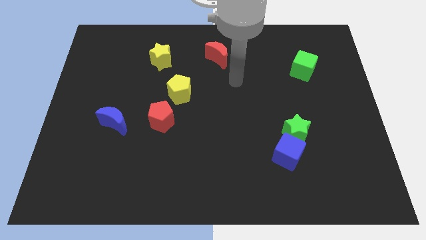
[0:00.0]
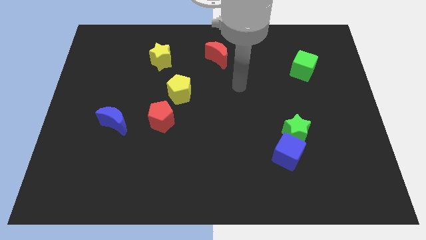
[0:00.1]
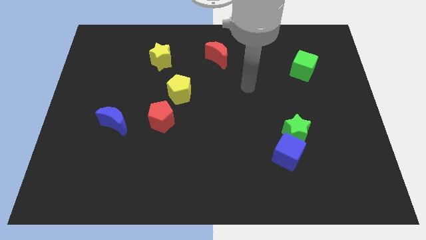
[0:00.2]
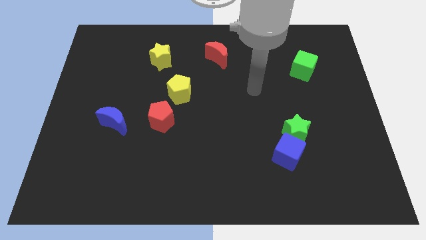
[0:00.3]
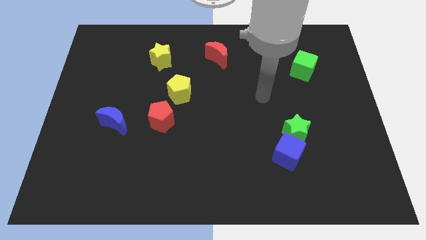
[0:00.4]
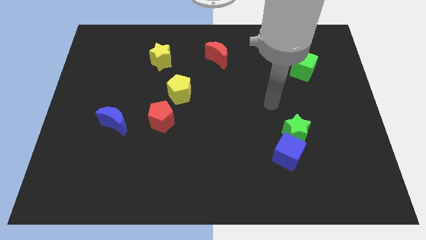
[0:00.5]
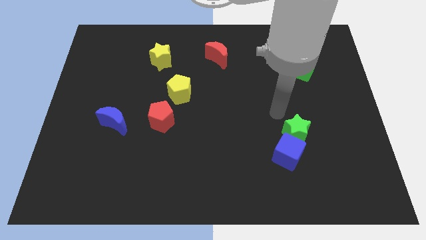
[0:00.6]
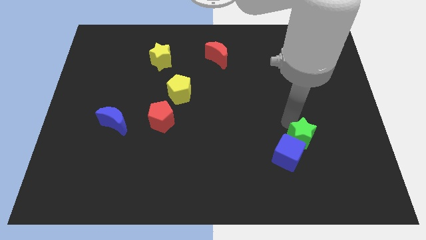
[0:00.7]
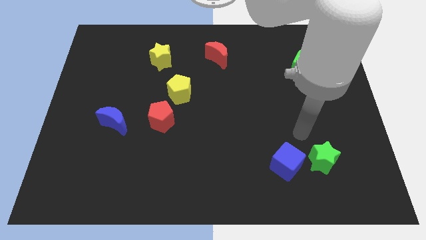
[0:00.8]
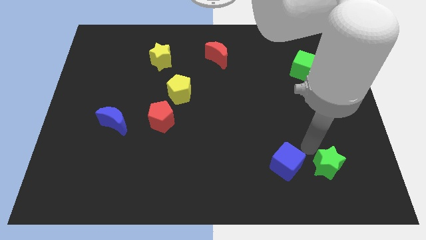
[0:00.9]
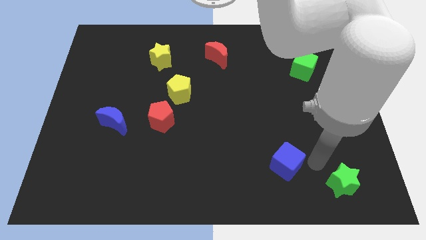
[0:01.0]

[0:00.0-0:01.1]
move the blue cube away from the green star

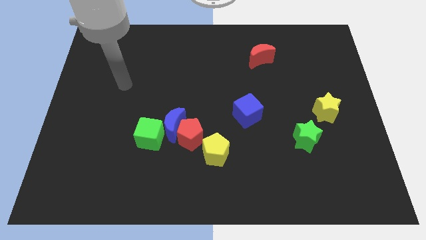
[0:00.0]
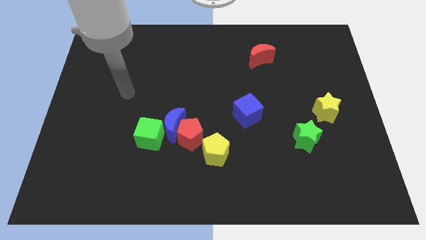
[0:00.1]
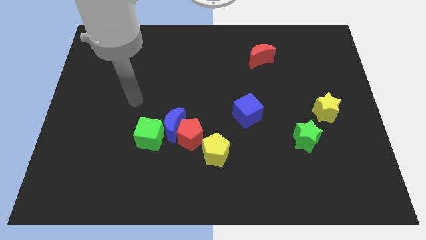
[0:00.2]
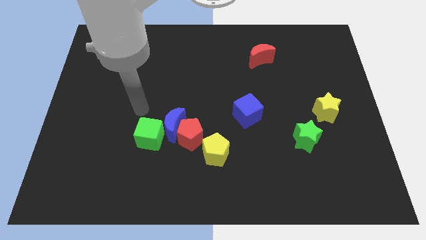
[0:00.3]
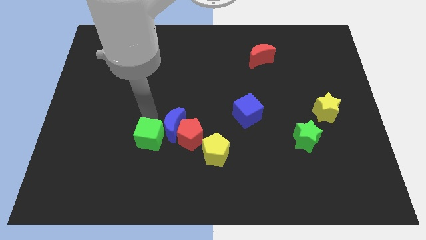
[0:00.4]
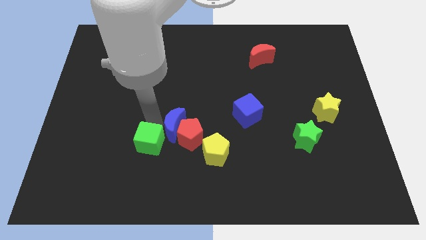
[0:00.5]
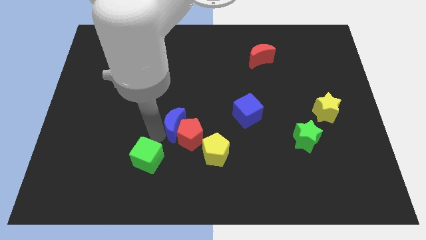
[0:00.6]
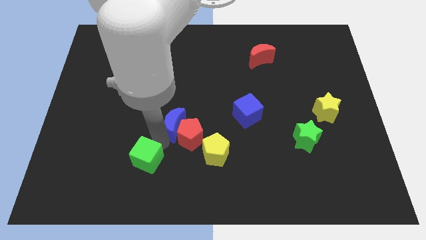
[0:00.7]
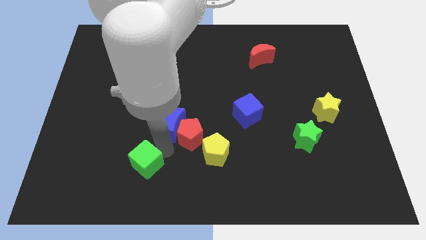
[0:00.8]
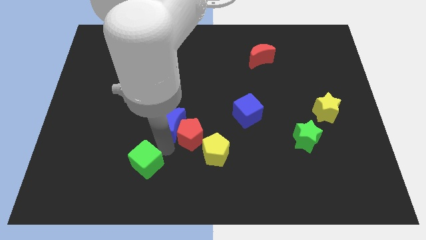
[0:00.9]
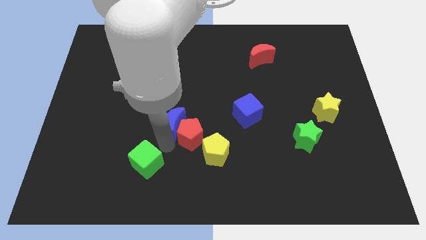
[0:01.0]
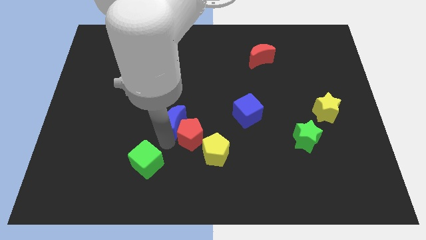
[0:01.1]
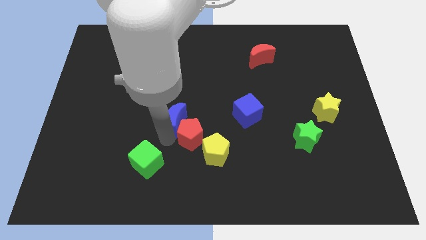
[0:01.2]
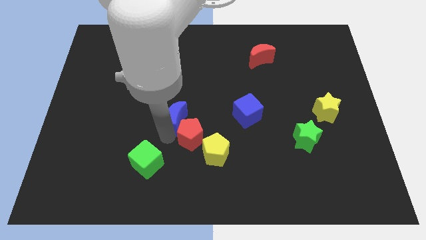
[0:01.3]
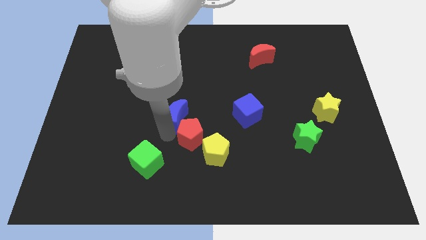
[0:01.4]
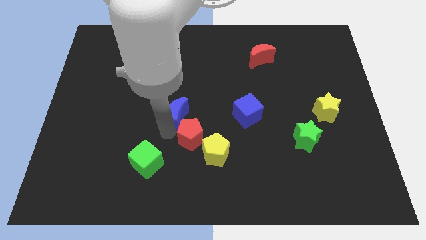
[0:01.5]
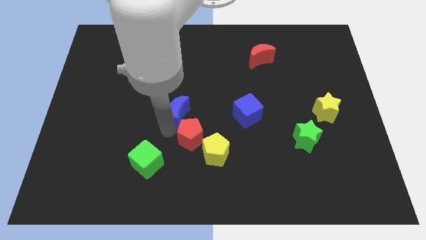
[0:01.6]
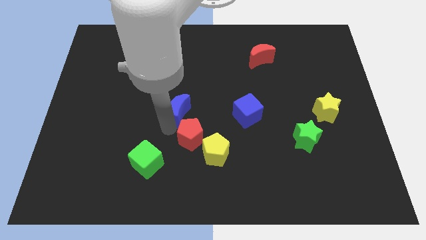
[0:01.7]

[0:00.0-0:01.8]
move the blue moon away from the red pentagon and green cube

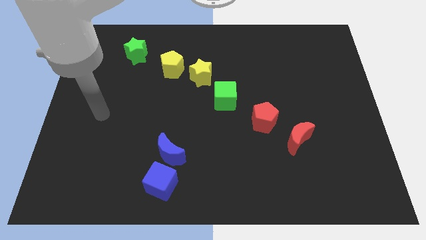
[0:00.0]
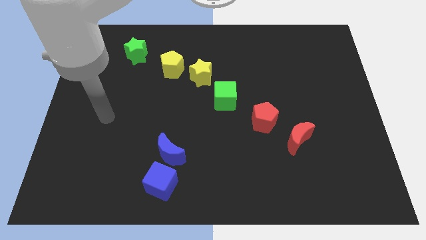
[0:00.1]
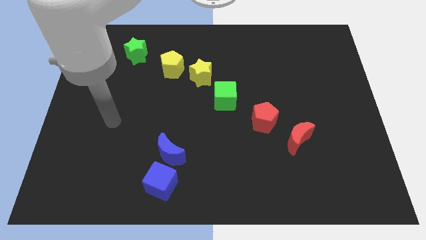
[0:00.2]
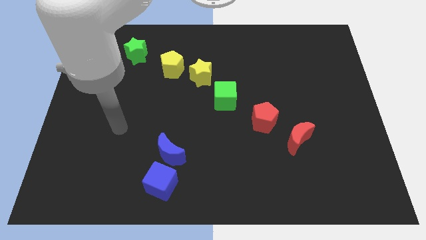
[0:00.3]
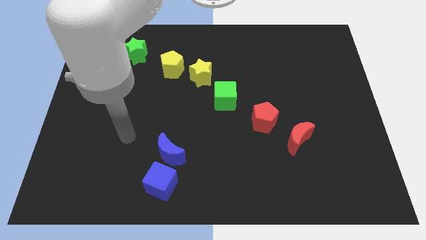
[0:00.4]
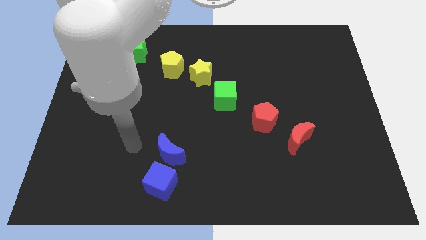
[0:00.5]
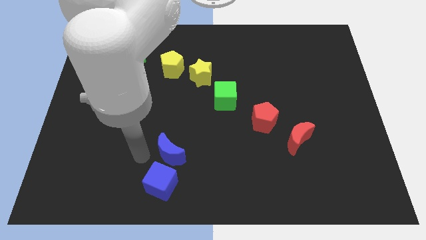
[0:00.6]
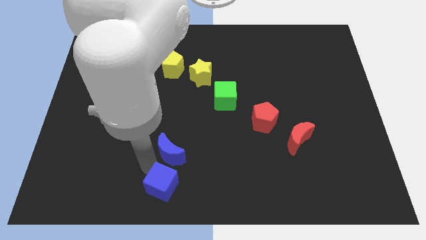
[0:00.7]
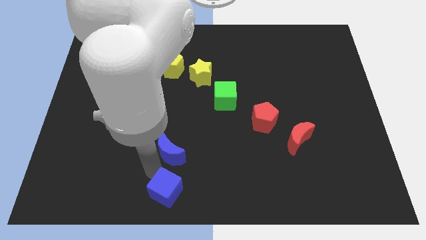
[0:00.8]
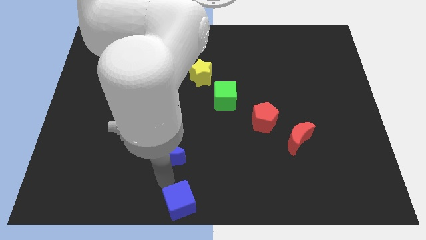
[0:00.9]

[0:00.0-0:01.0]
move the blue moon away from the blue cube

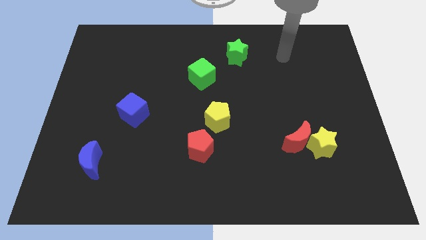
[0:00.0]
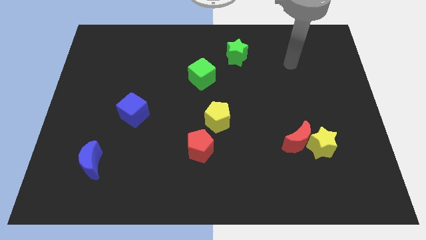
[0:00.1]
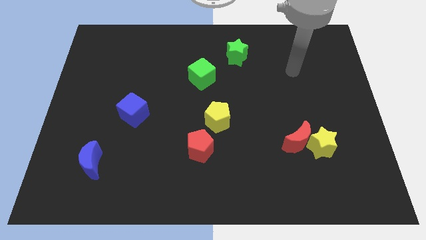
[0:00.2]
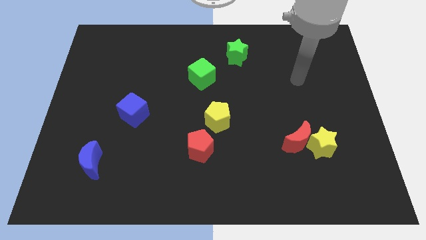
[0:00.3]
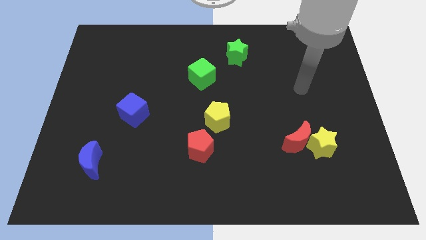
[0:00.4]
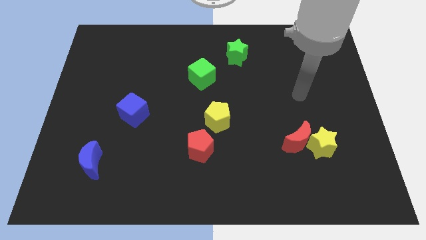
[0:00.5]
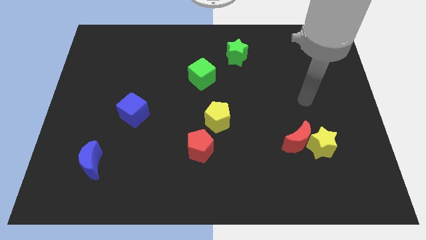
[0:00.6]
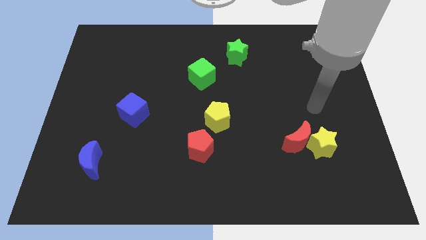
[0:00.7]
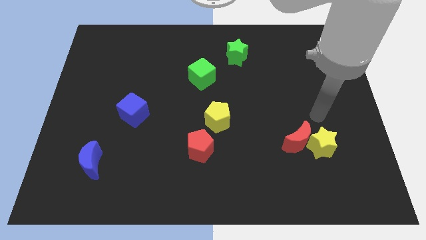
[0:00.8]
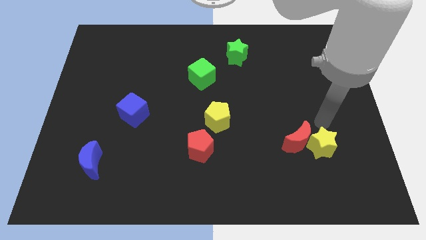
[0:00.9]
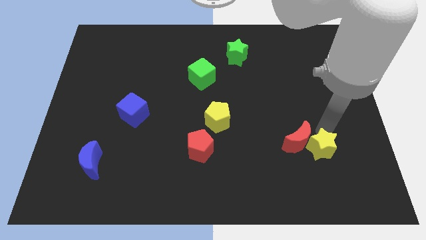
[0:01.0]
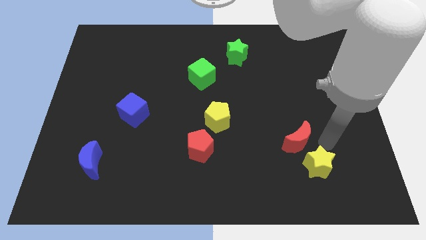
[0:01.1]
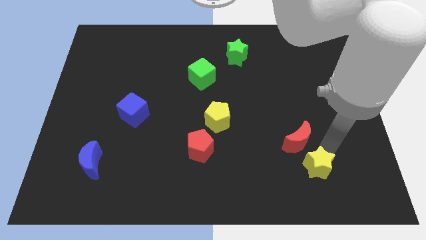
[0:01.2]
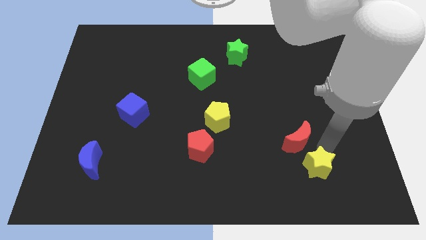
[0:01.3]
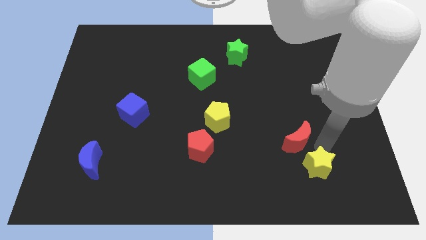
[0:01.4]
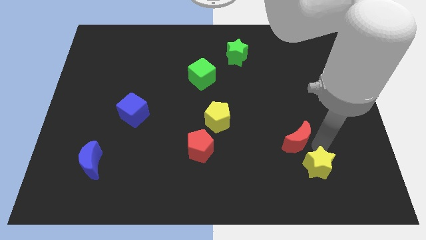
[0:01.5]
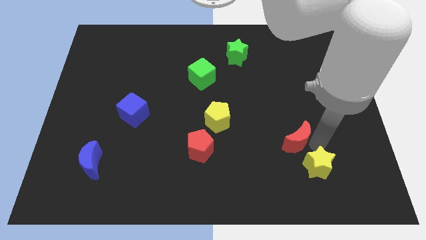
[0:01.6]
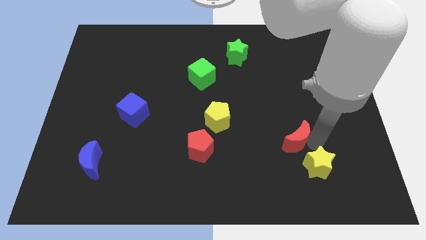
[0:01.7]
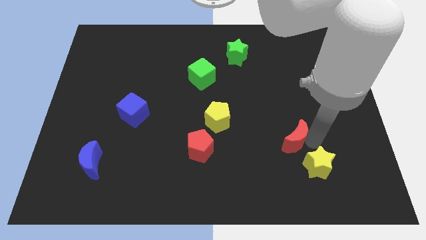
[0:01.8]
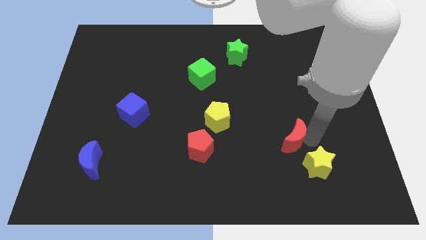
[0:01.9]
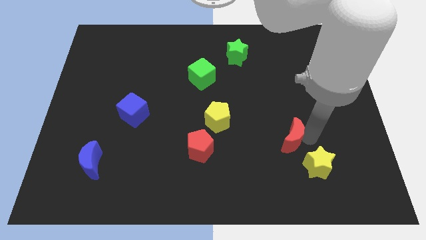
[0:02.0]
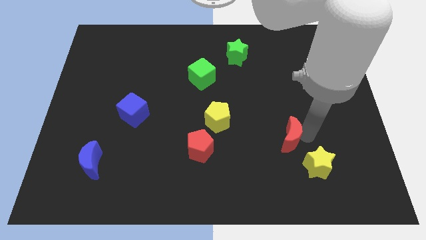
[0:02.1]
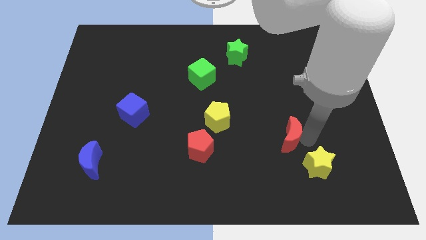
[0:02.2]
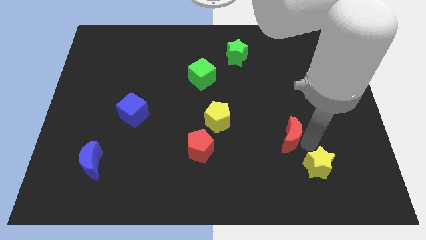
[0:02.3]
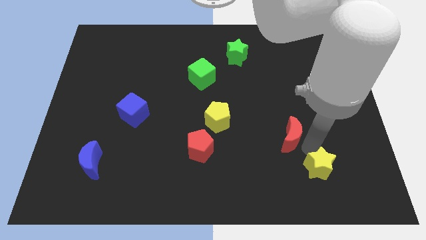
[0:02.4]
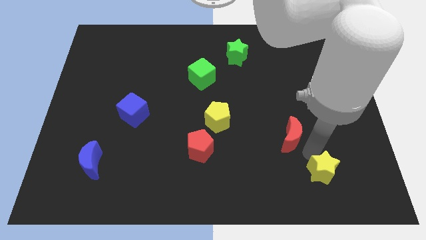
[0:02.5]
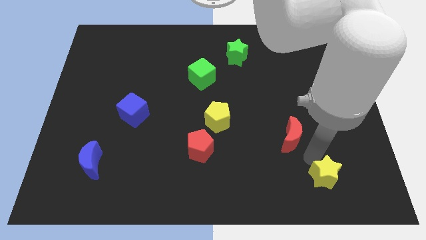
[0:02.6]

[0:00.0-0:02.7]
separate the red moon from the yellow star

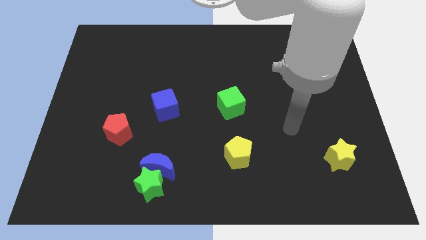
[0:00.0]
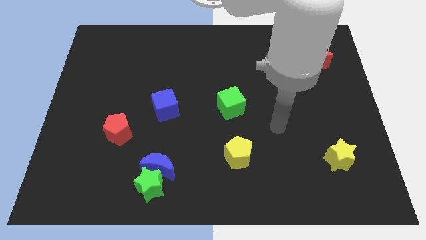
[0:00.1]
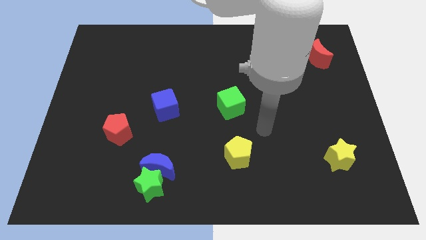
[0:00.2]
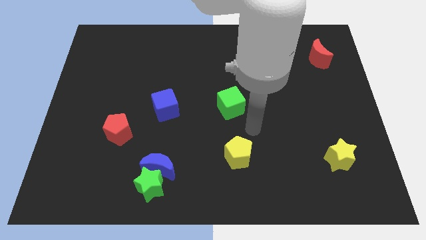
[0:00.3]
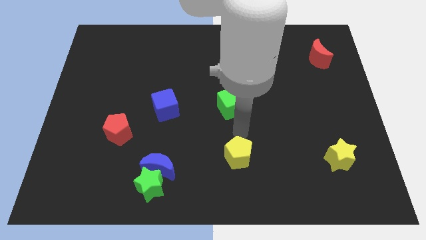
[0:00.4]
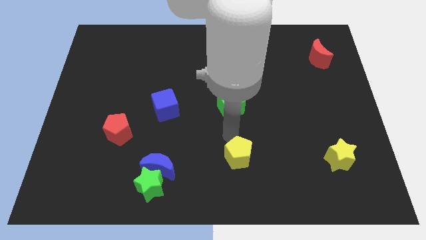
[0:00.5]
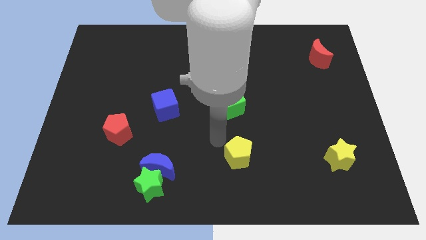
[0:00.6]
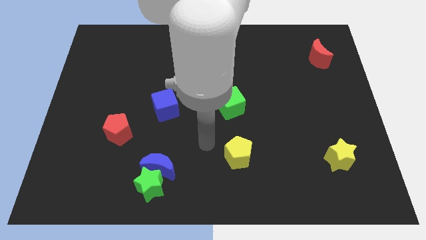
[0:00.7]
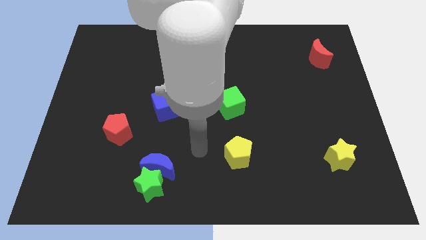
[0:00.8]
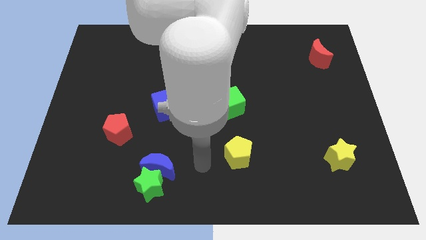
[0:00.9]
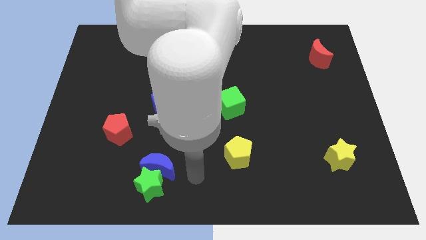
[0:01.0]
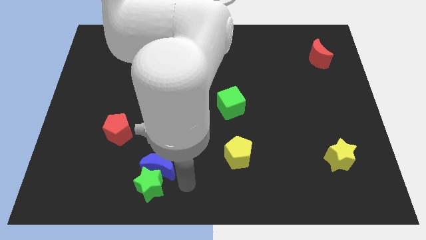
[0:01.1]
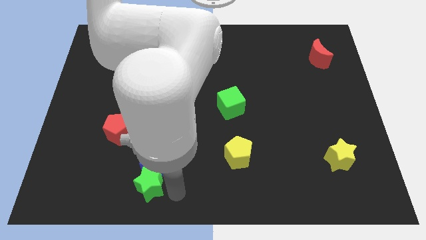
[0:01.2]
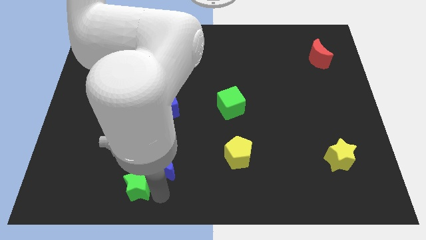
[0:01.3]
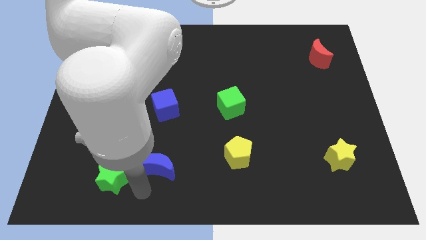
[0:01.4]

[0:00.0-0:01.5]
separate the blue moon from the green star

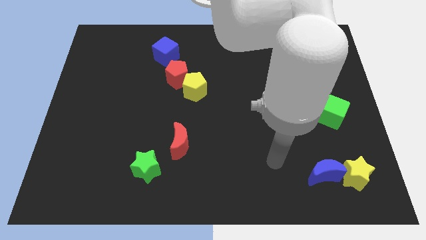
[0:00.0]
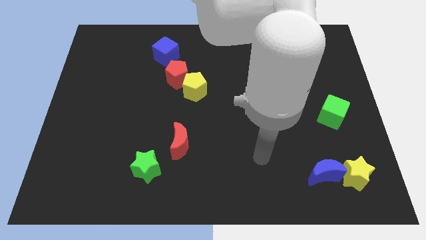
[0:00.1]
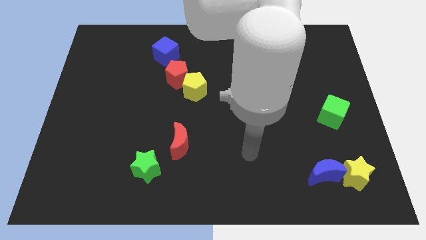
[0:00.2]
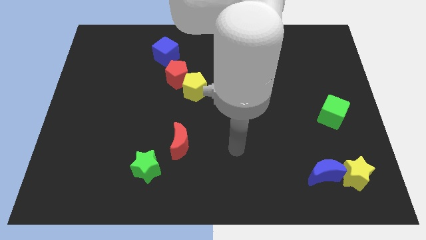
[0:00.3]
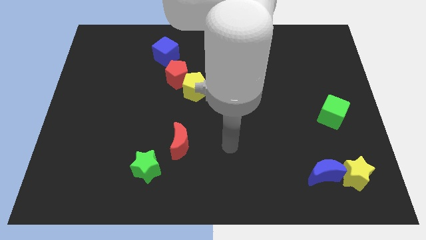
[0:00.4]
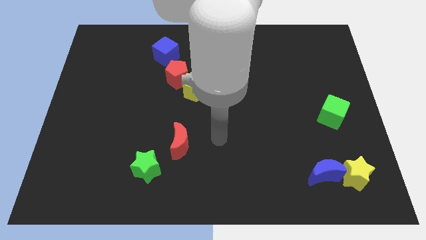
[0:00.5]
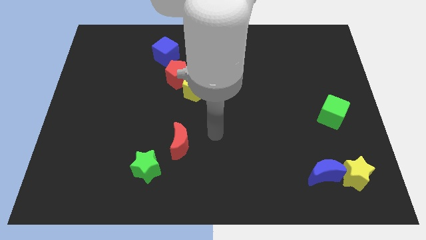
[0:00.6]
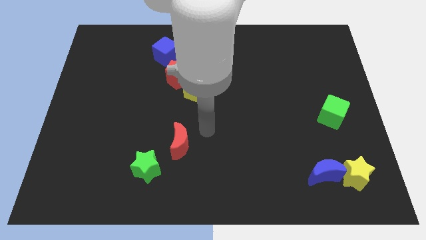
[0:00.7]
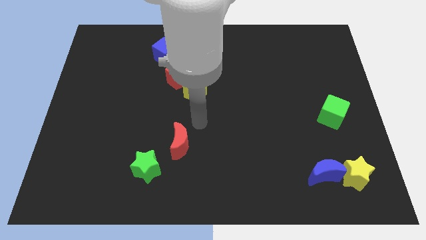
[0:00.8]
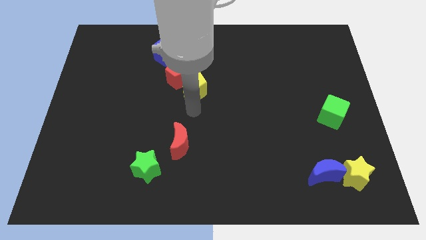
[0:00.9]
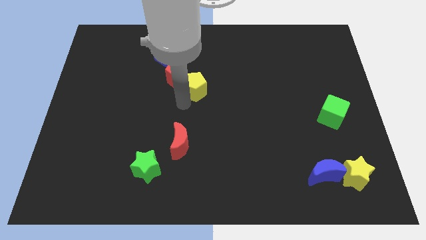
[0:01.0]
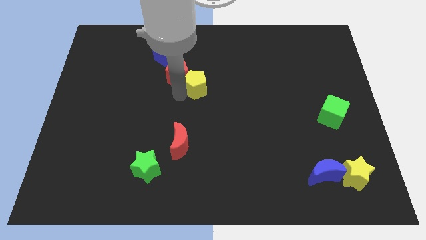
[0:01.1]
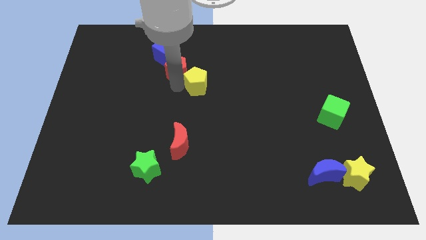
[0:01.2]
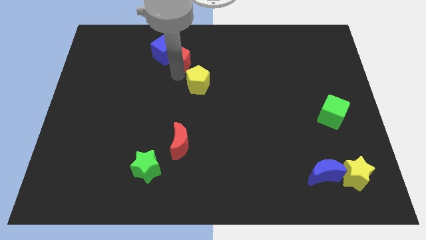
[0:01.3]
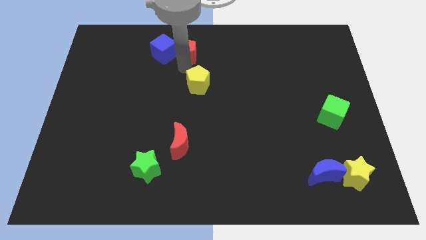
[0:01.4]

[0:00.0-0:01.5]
separate the yellow pentagon from the red pentagon
